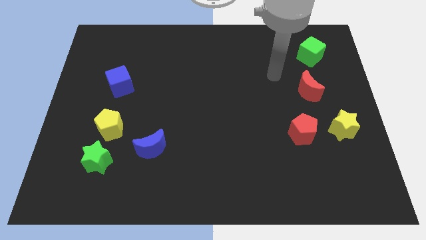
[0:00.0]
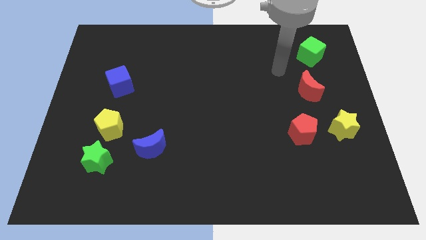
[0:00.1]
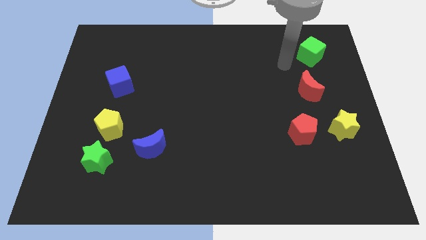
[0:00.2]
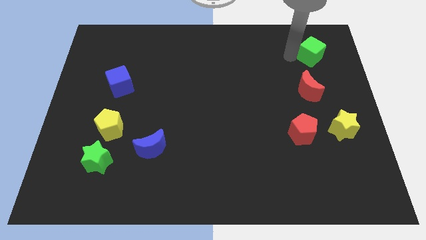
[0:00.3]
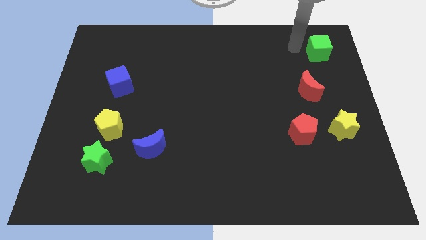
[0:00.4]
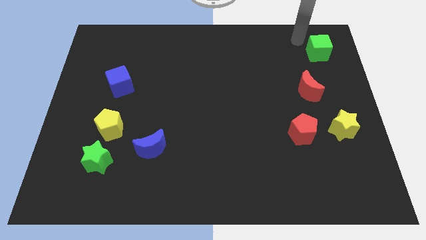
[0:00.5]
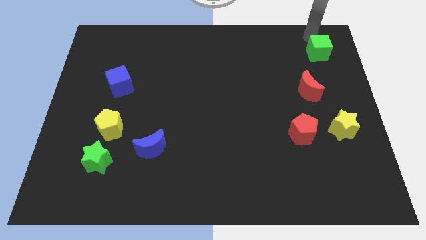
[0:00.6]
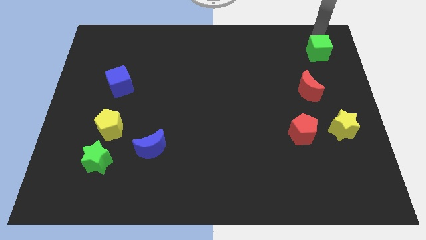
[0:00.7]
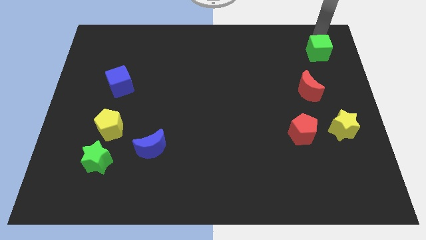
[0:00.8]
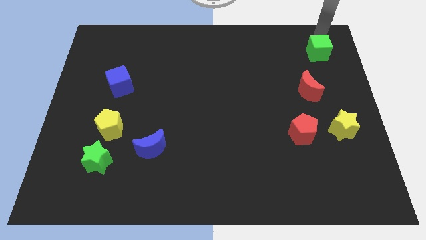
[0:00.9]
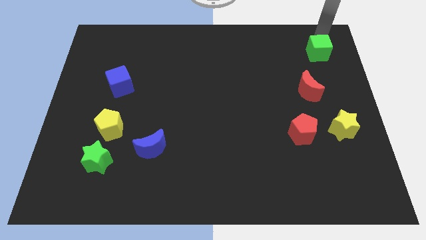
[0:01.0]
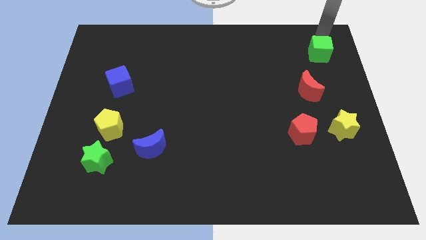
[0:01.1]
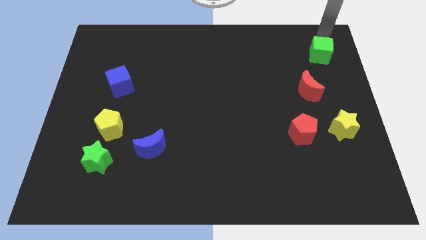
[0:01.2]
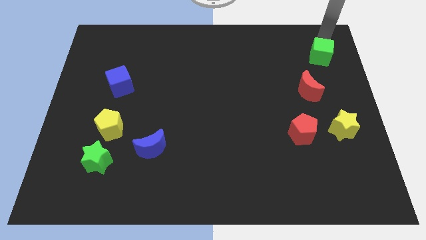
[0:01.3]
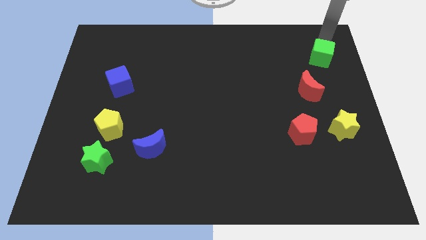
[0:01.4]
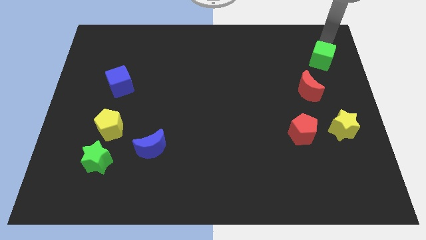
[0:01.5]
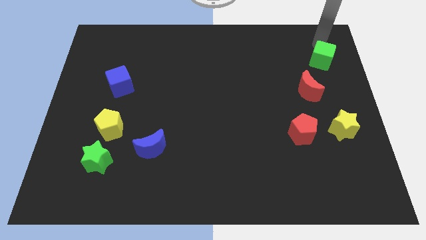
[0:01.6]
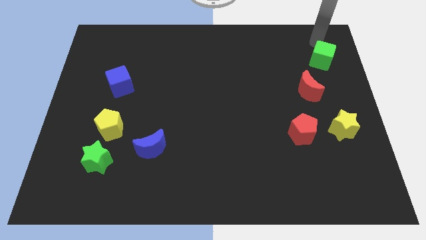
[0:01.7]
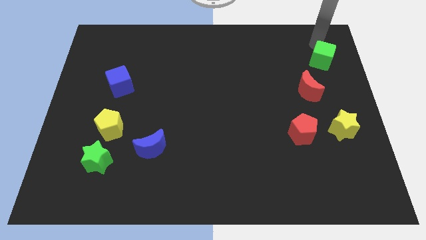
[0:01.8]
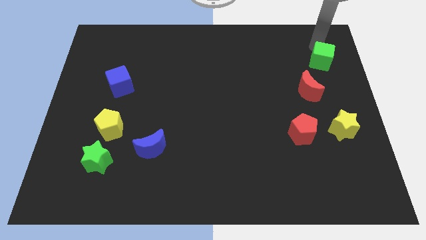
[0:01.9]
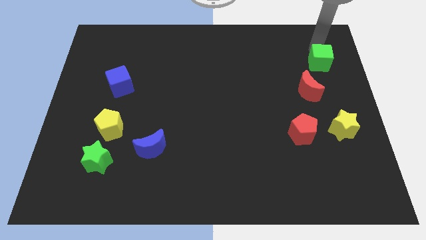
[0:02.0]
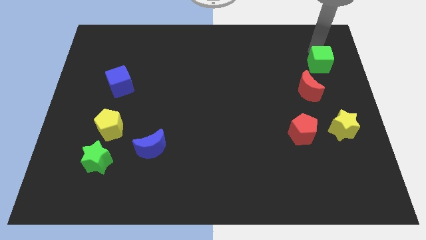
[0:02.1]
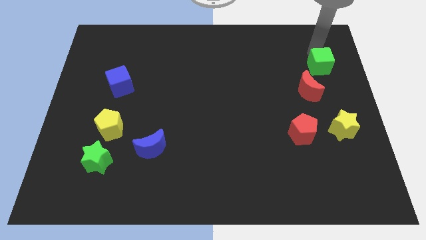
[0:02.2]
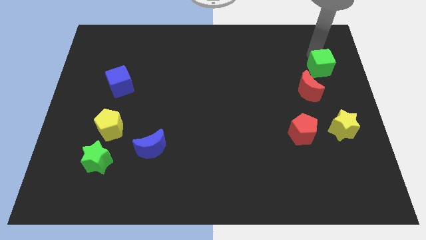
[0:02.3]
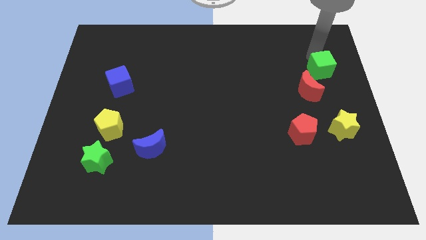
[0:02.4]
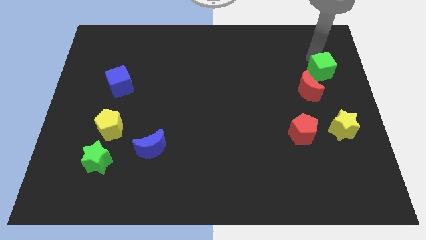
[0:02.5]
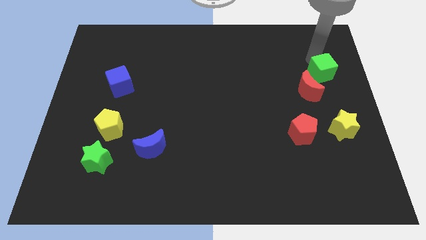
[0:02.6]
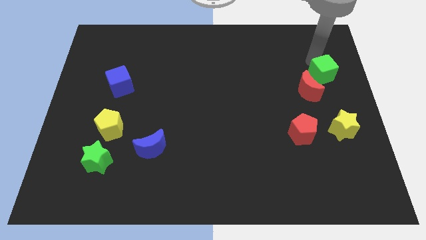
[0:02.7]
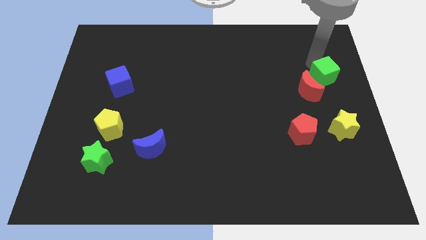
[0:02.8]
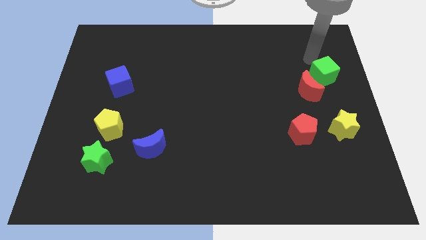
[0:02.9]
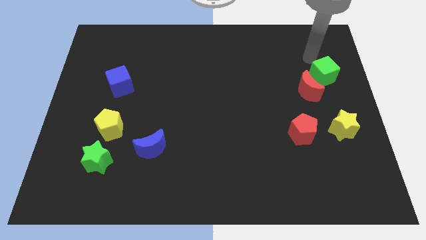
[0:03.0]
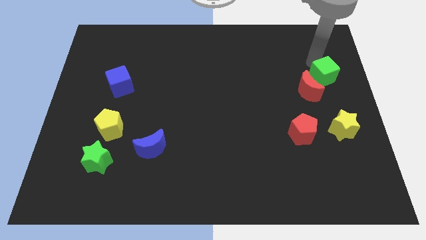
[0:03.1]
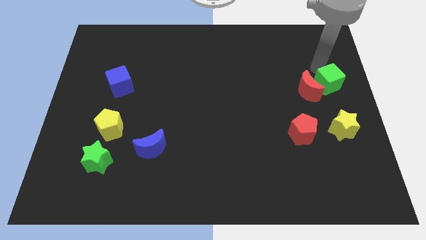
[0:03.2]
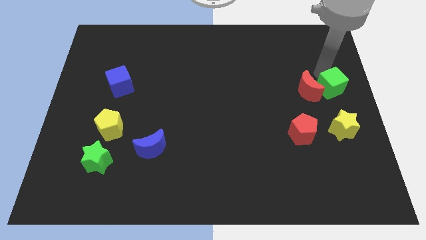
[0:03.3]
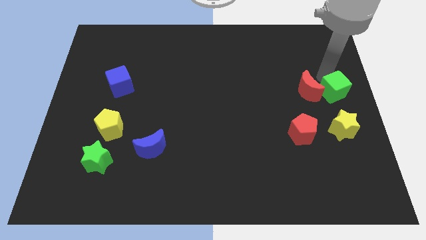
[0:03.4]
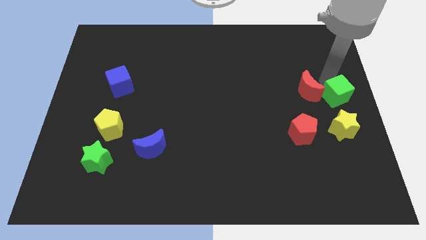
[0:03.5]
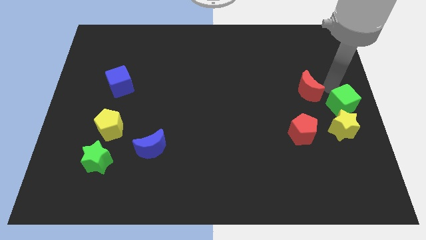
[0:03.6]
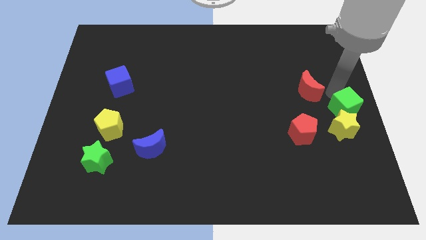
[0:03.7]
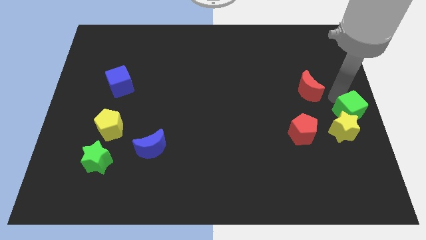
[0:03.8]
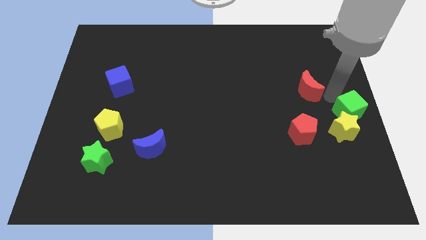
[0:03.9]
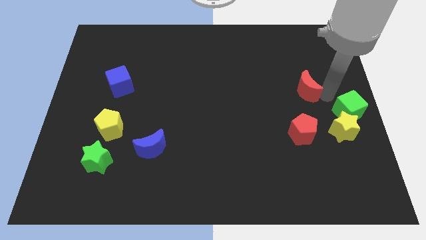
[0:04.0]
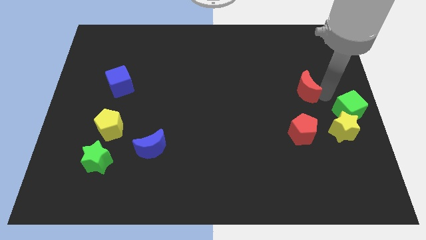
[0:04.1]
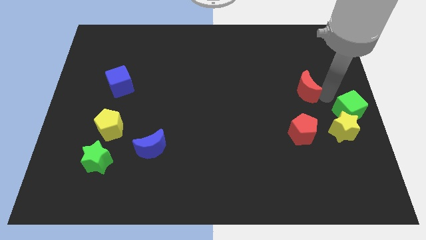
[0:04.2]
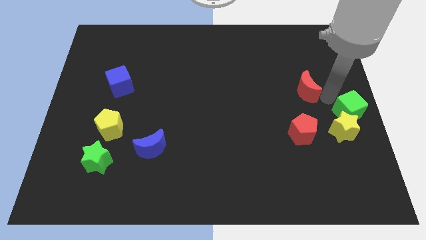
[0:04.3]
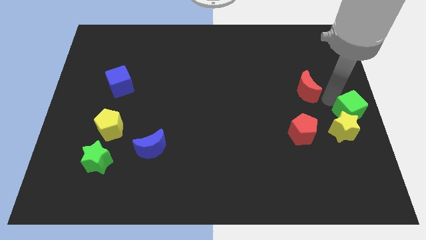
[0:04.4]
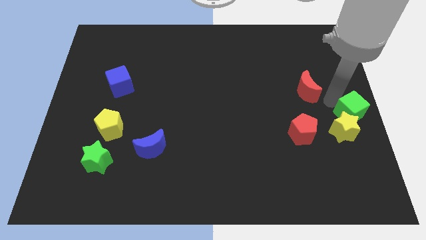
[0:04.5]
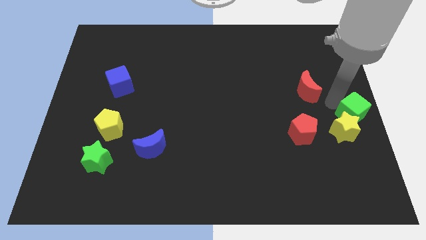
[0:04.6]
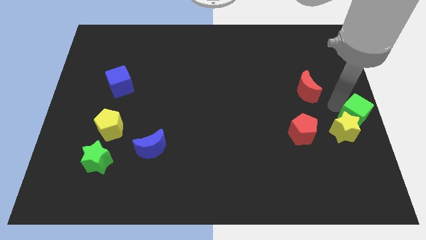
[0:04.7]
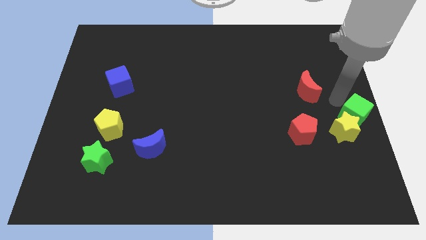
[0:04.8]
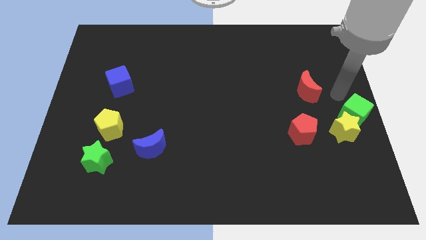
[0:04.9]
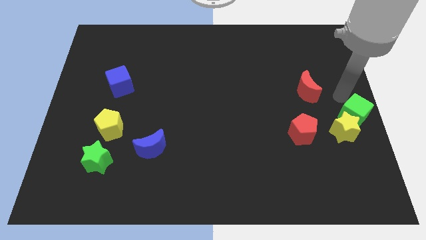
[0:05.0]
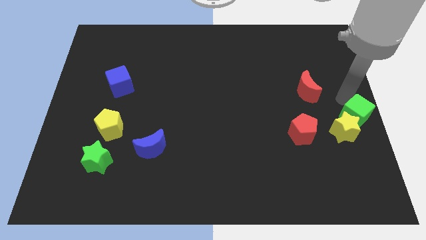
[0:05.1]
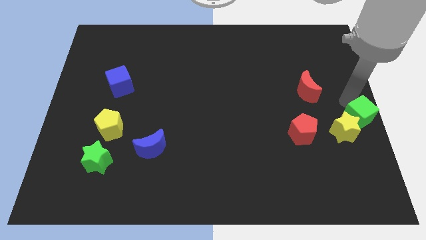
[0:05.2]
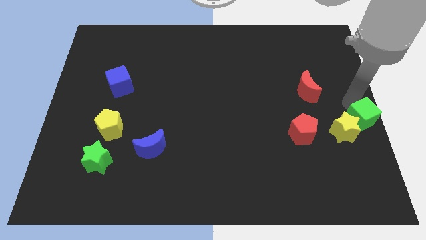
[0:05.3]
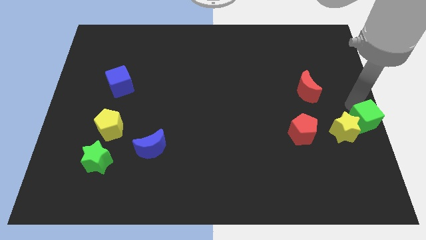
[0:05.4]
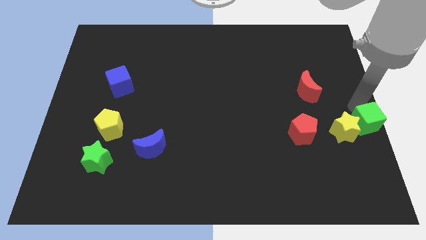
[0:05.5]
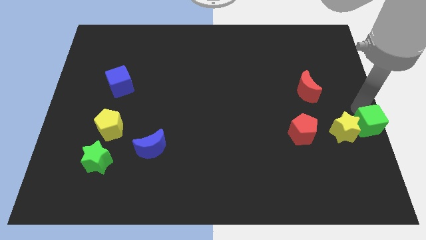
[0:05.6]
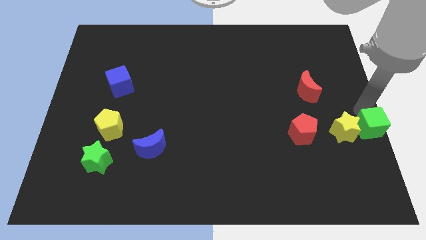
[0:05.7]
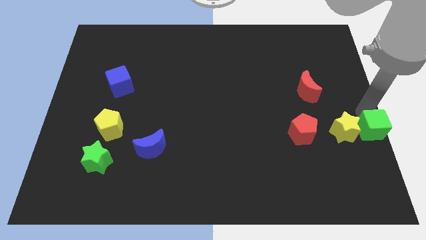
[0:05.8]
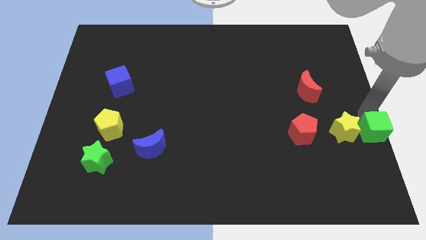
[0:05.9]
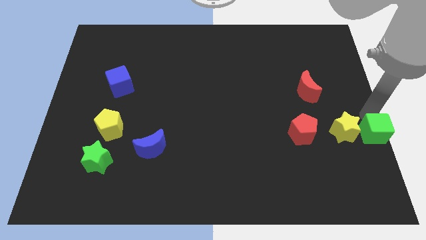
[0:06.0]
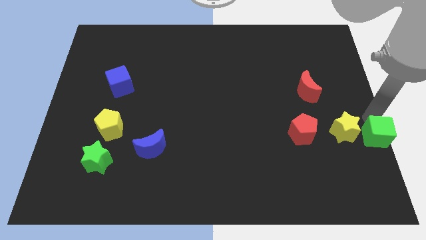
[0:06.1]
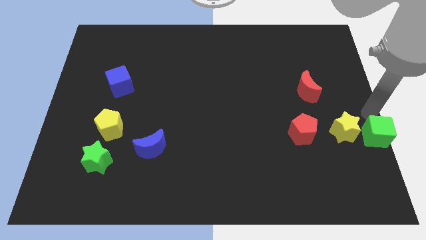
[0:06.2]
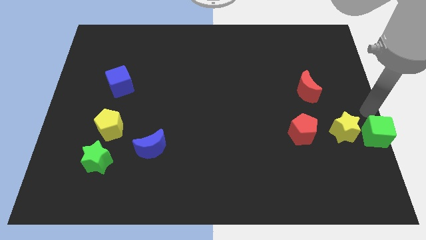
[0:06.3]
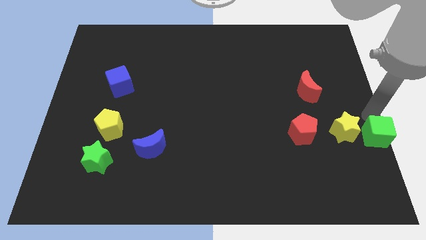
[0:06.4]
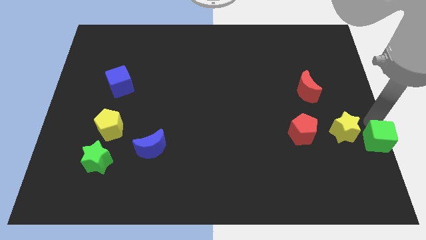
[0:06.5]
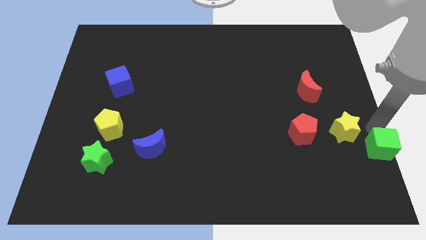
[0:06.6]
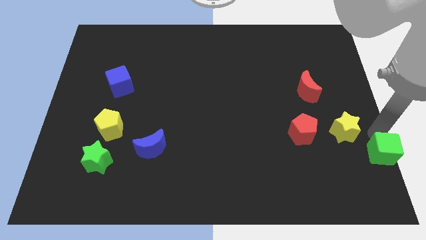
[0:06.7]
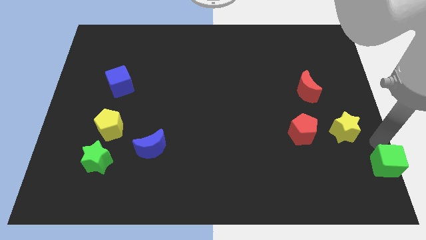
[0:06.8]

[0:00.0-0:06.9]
slide the green cube to the lower right corner

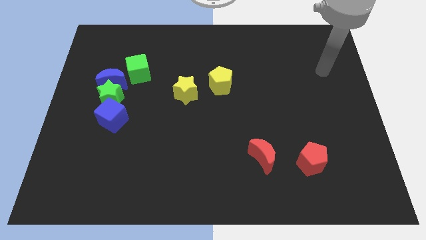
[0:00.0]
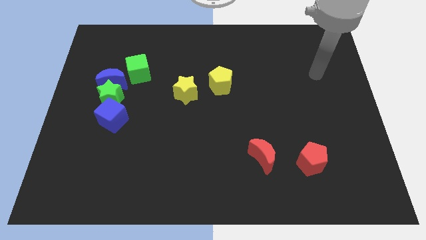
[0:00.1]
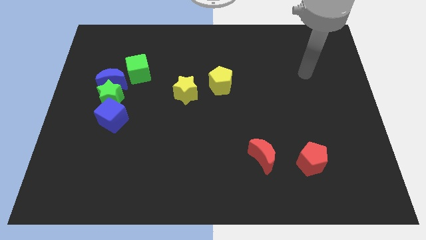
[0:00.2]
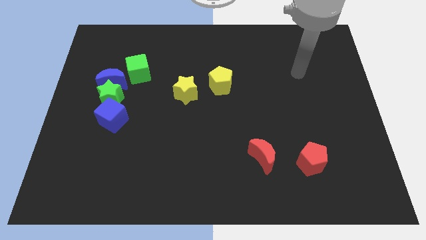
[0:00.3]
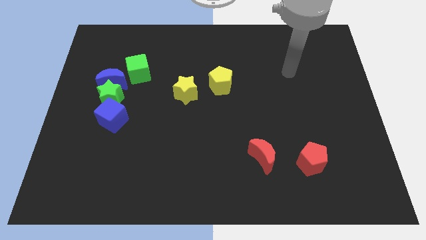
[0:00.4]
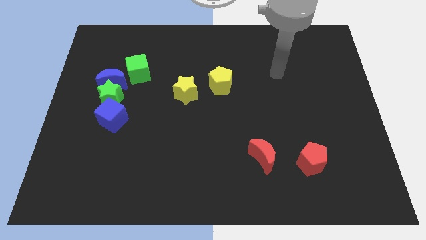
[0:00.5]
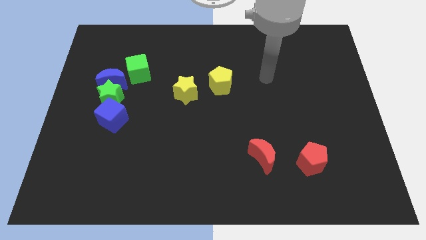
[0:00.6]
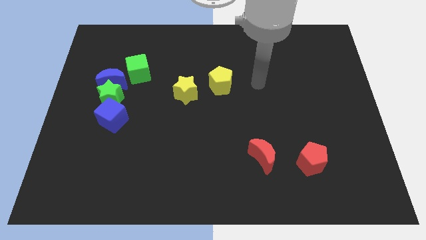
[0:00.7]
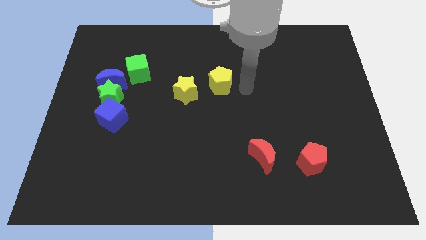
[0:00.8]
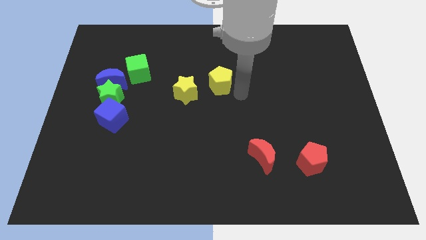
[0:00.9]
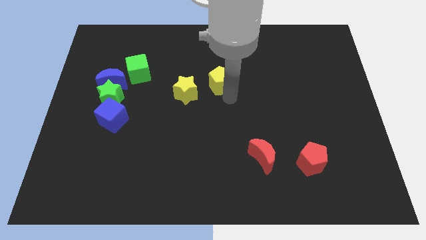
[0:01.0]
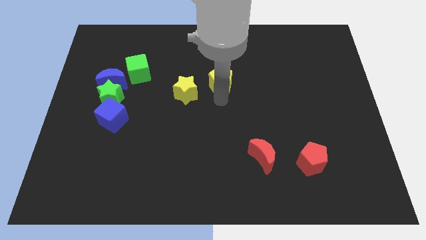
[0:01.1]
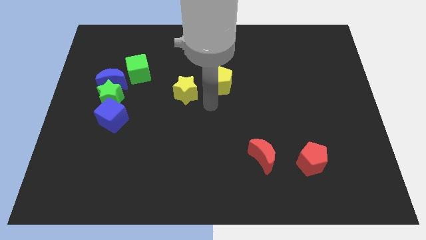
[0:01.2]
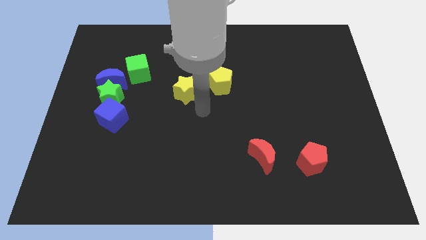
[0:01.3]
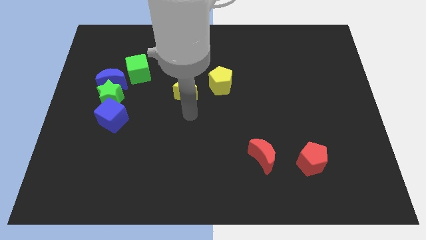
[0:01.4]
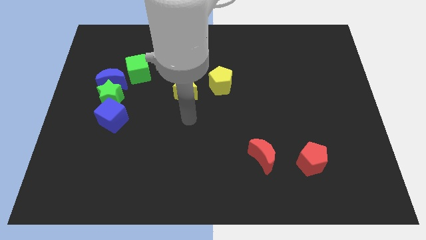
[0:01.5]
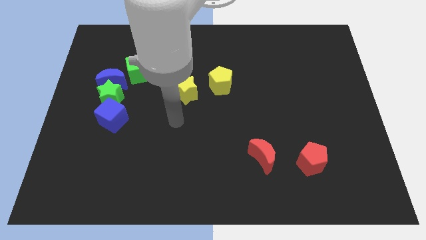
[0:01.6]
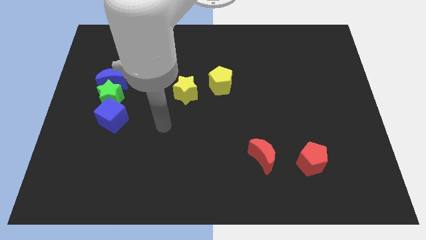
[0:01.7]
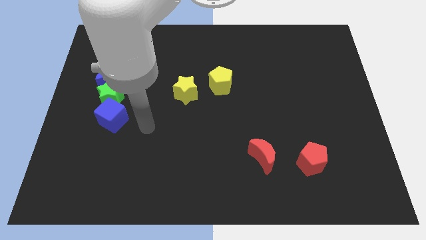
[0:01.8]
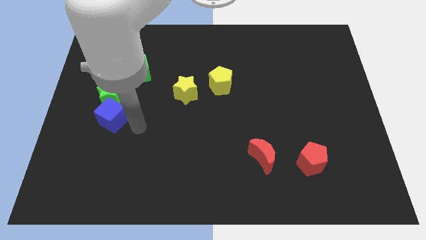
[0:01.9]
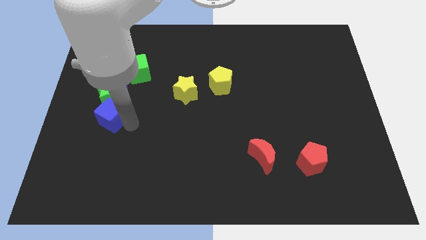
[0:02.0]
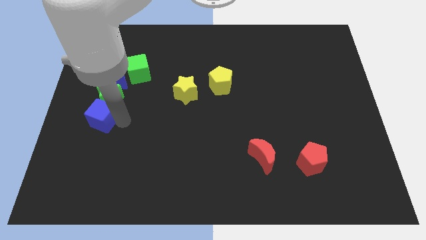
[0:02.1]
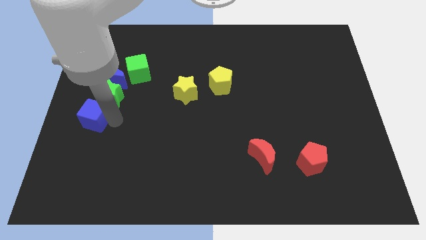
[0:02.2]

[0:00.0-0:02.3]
put the blue cube to the center left
